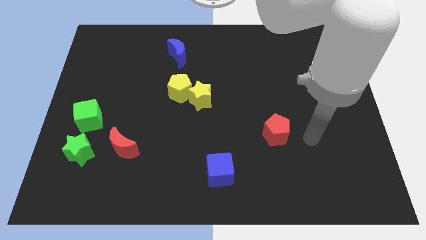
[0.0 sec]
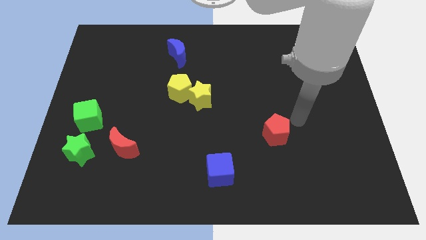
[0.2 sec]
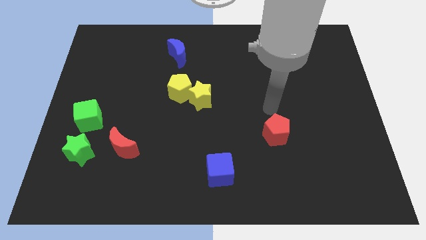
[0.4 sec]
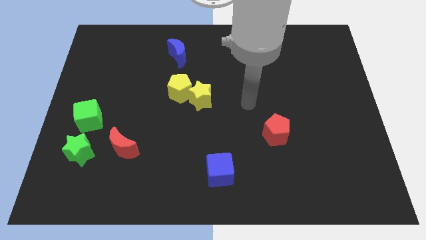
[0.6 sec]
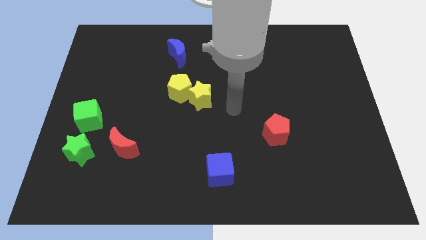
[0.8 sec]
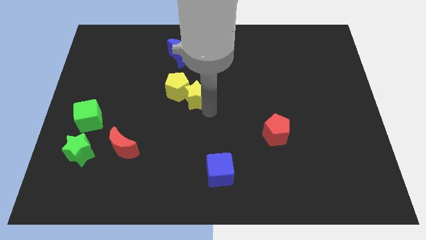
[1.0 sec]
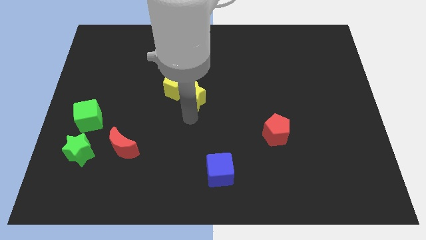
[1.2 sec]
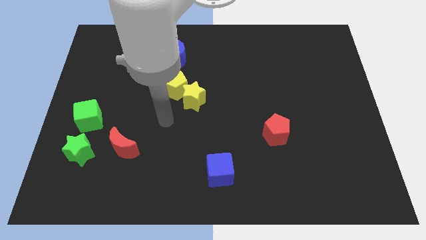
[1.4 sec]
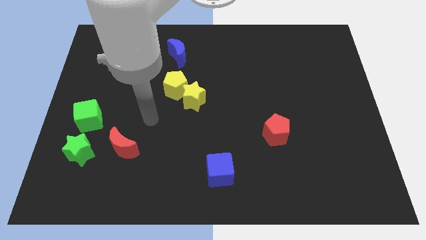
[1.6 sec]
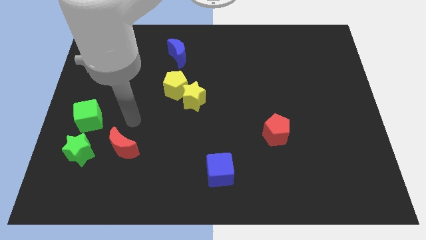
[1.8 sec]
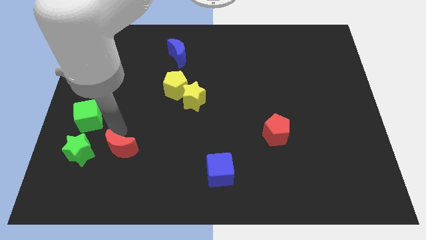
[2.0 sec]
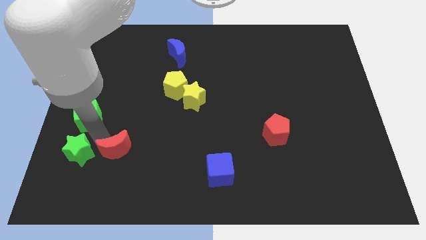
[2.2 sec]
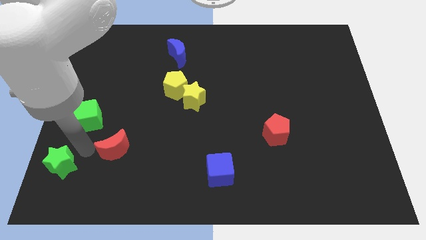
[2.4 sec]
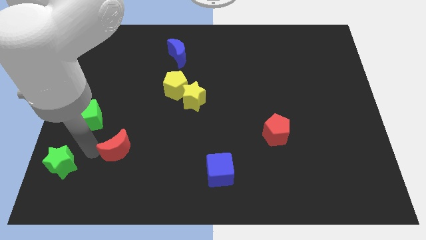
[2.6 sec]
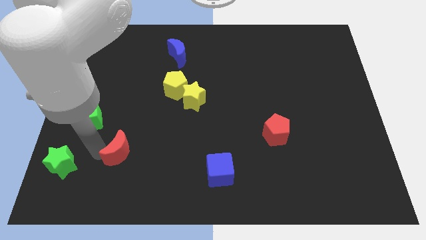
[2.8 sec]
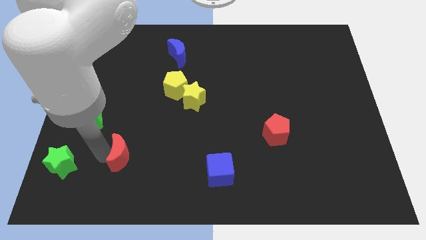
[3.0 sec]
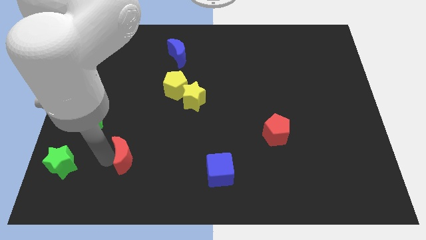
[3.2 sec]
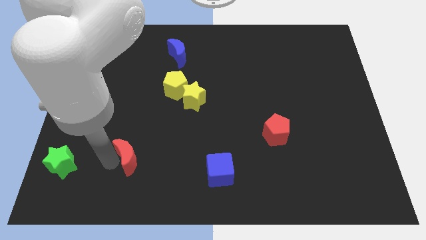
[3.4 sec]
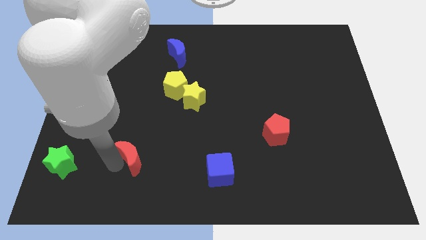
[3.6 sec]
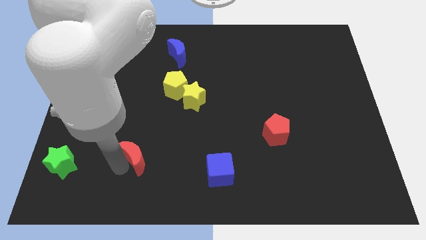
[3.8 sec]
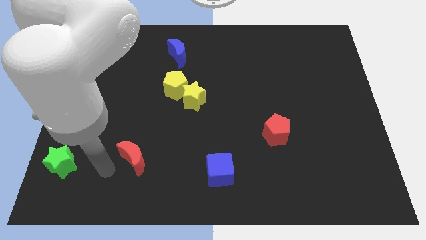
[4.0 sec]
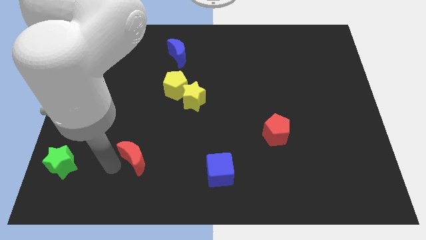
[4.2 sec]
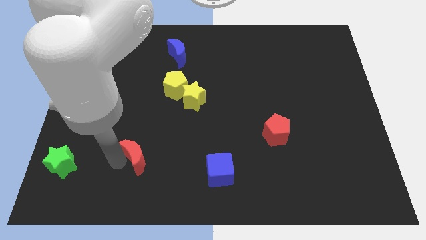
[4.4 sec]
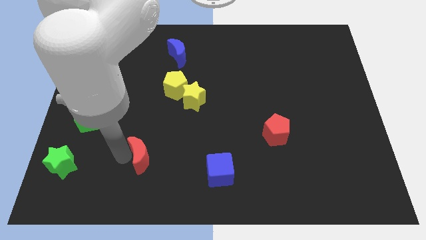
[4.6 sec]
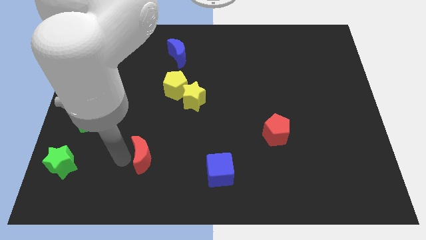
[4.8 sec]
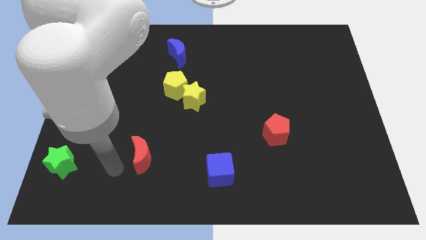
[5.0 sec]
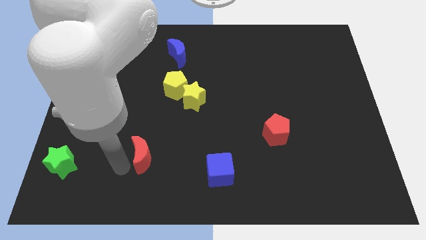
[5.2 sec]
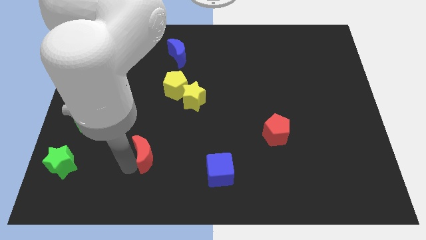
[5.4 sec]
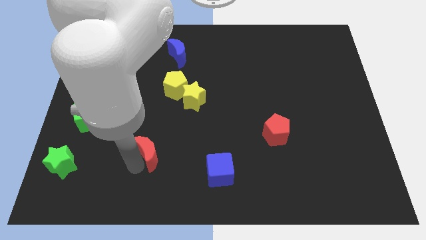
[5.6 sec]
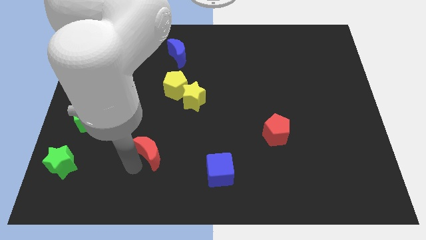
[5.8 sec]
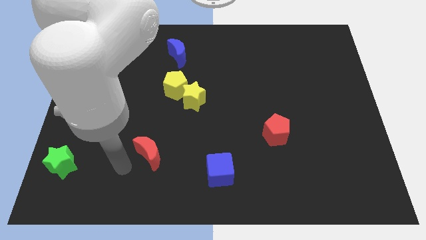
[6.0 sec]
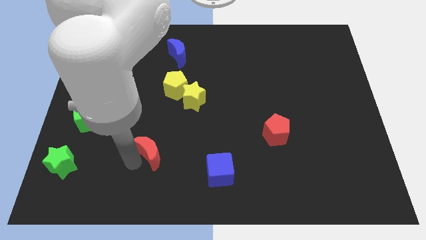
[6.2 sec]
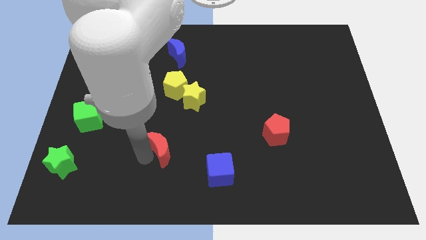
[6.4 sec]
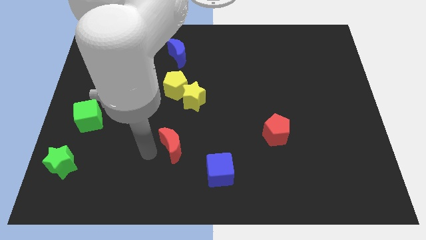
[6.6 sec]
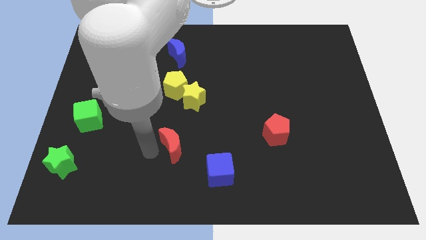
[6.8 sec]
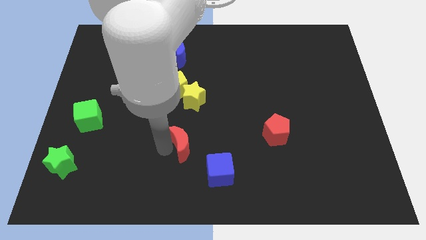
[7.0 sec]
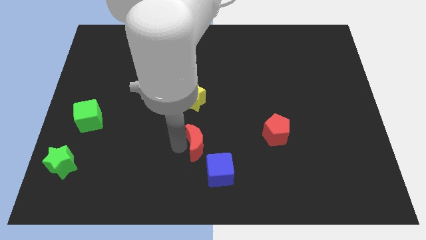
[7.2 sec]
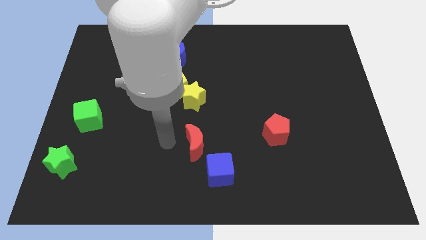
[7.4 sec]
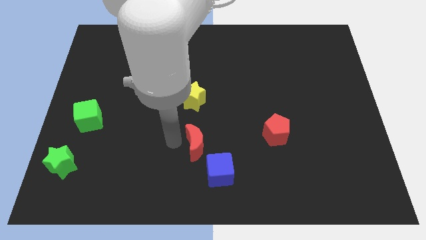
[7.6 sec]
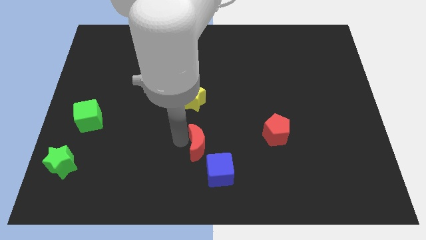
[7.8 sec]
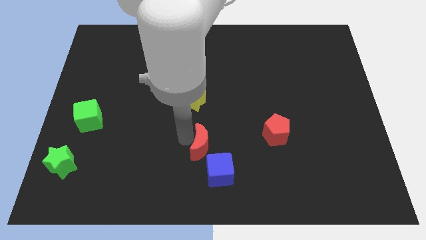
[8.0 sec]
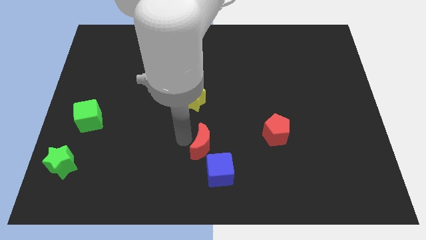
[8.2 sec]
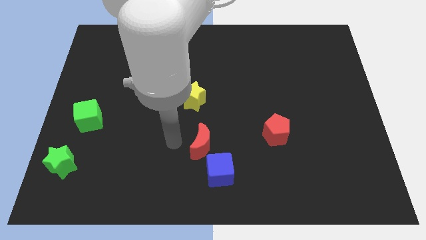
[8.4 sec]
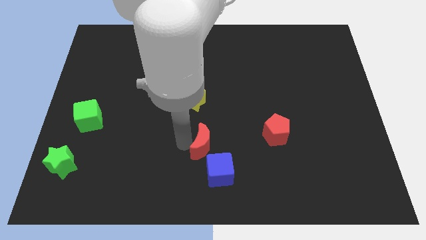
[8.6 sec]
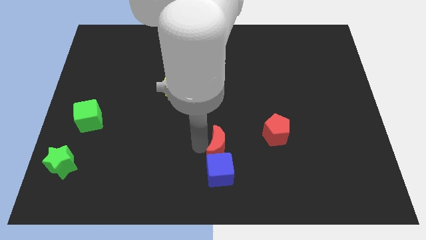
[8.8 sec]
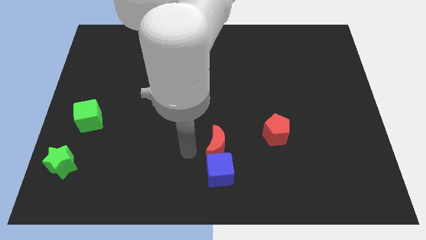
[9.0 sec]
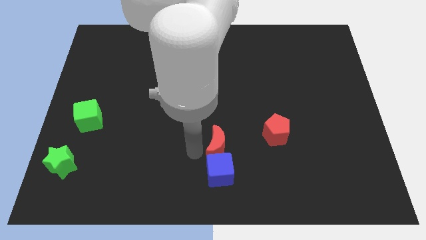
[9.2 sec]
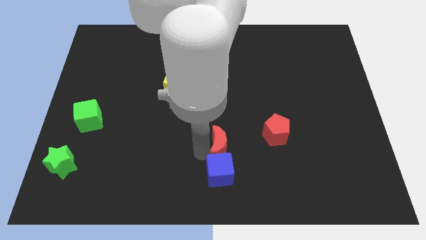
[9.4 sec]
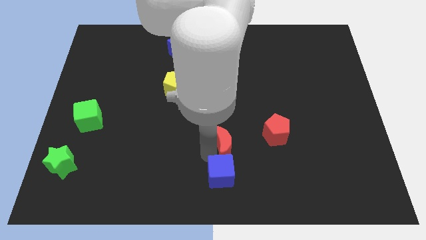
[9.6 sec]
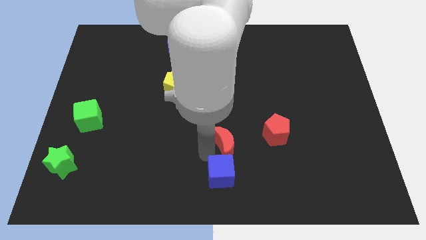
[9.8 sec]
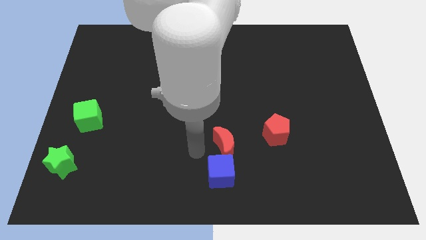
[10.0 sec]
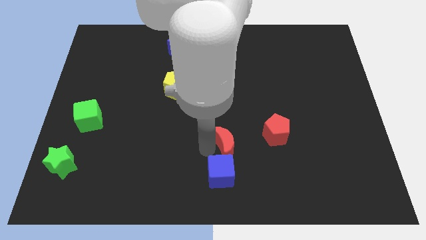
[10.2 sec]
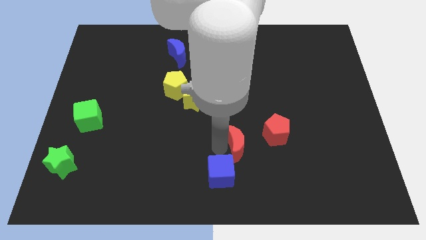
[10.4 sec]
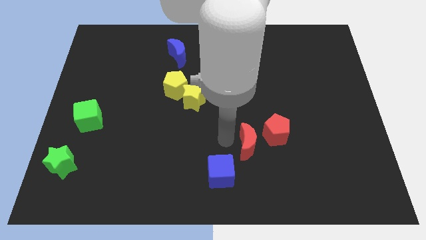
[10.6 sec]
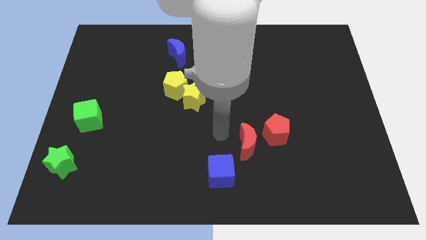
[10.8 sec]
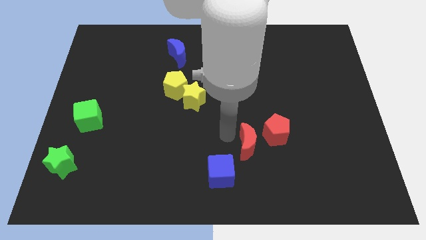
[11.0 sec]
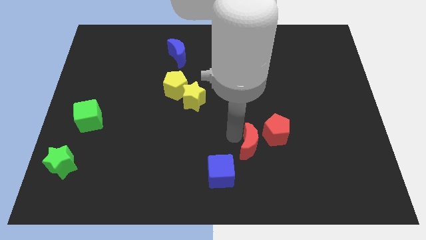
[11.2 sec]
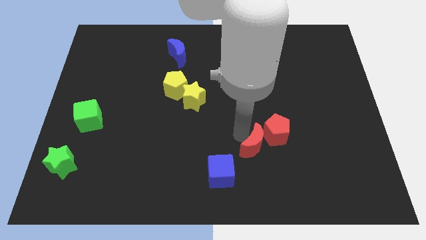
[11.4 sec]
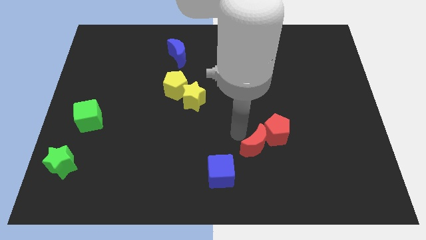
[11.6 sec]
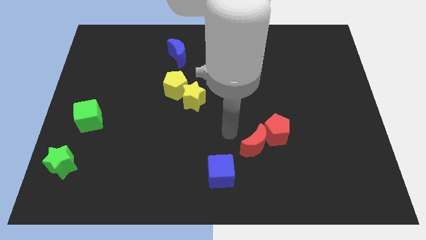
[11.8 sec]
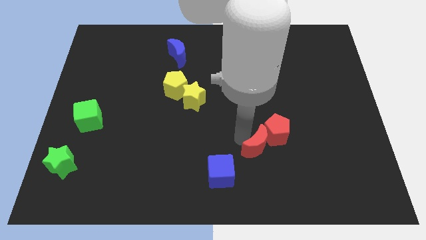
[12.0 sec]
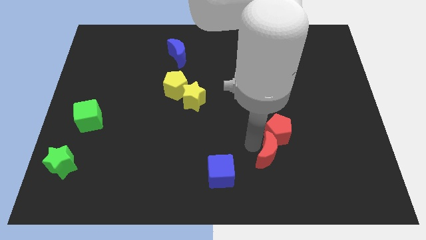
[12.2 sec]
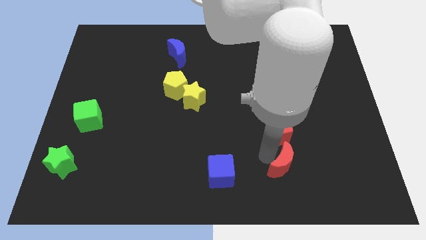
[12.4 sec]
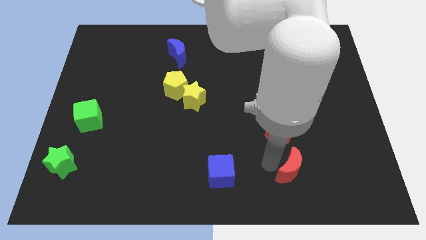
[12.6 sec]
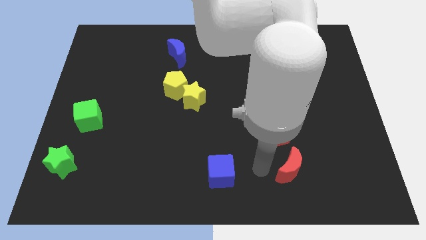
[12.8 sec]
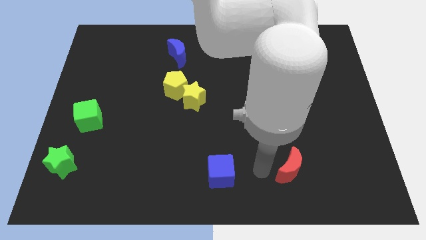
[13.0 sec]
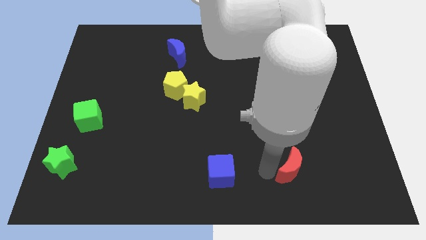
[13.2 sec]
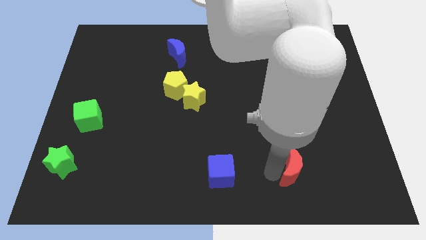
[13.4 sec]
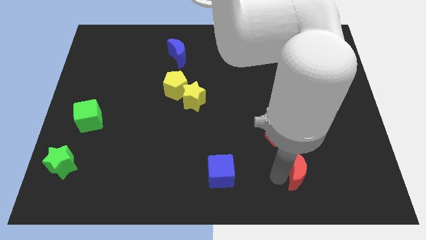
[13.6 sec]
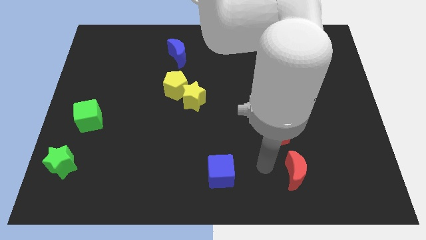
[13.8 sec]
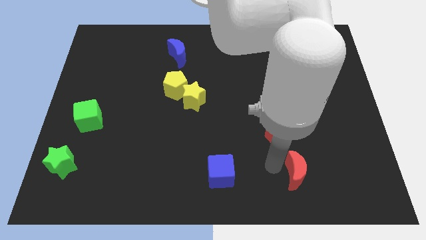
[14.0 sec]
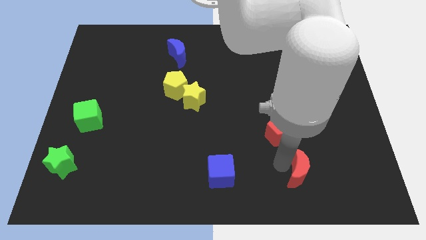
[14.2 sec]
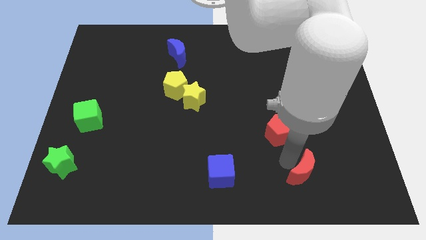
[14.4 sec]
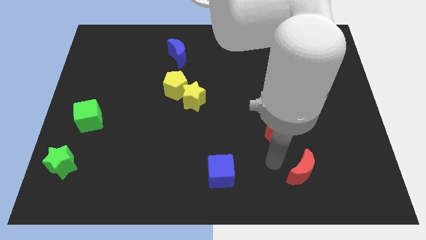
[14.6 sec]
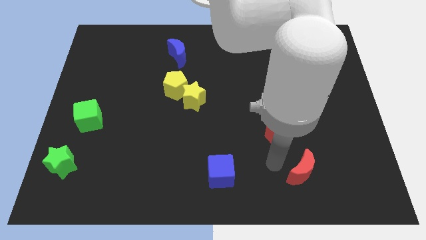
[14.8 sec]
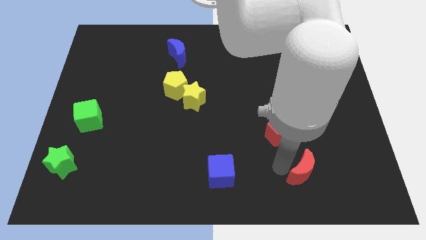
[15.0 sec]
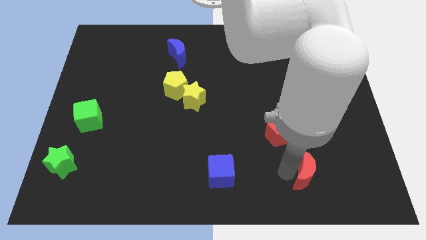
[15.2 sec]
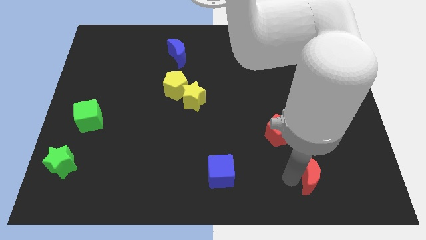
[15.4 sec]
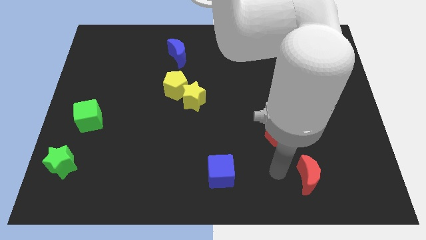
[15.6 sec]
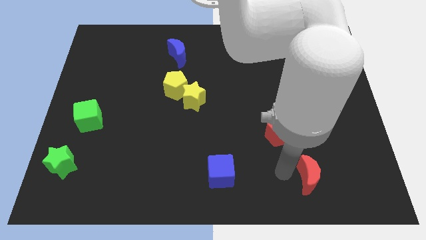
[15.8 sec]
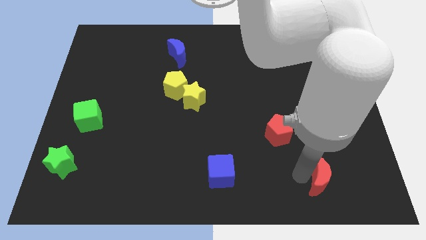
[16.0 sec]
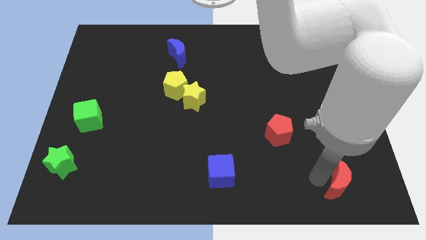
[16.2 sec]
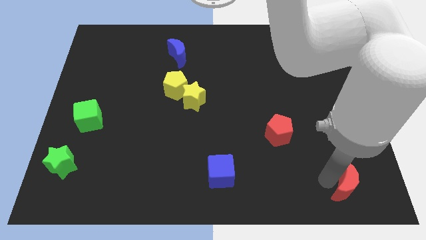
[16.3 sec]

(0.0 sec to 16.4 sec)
move the red moon to the lower right corner
